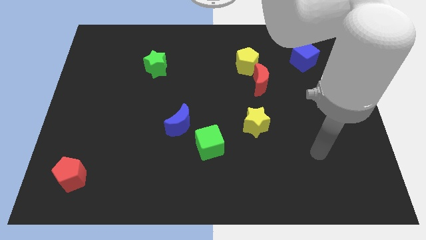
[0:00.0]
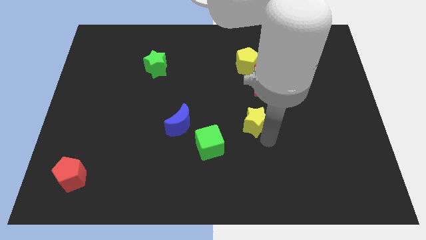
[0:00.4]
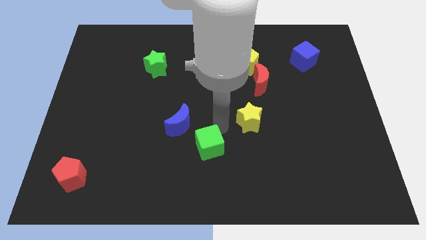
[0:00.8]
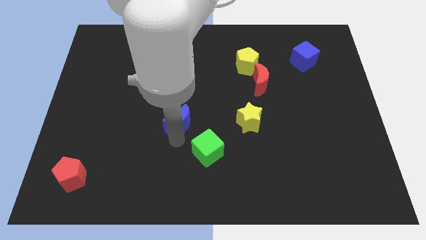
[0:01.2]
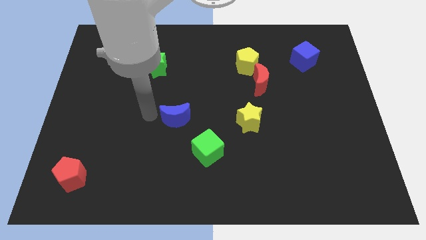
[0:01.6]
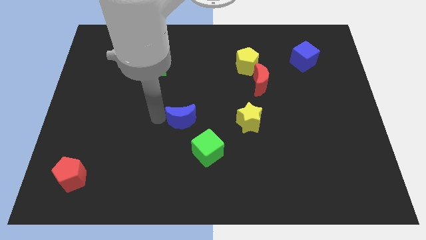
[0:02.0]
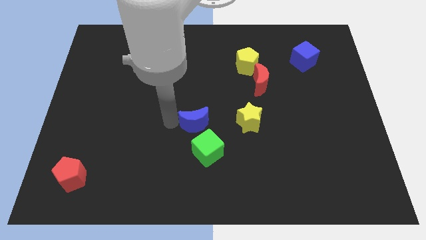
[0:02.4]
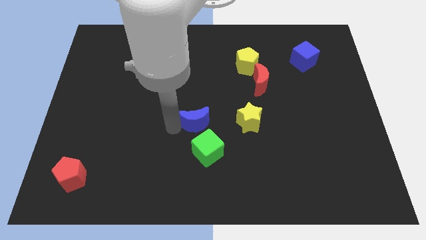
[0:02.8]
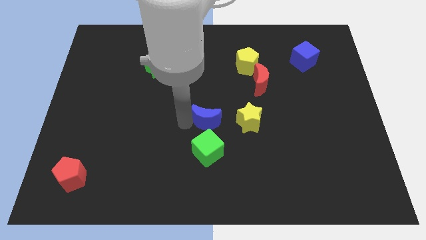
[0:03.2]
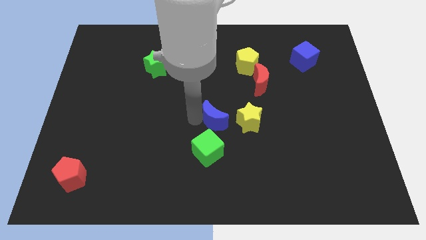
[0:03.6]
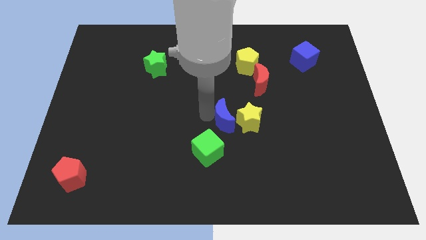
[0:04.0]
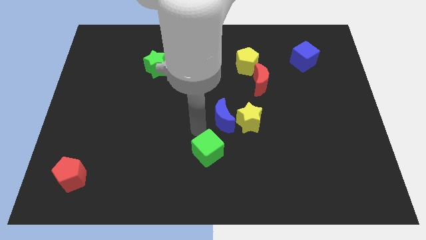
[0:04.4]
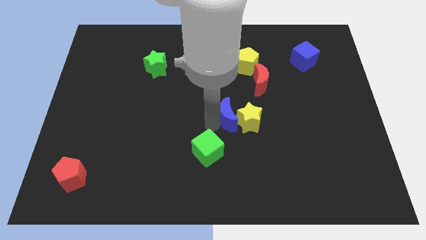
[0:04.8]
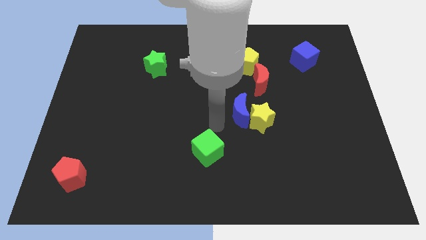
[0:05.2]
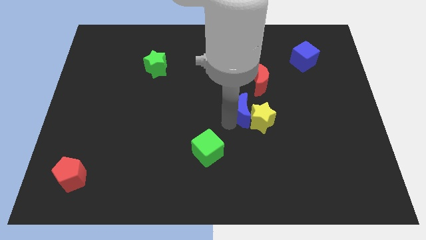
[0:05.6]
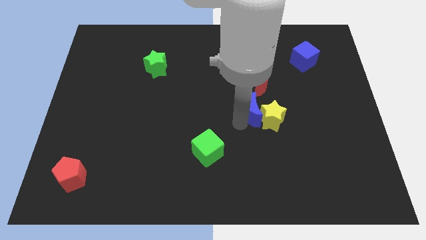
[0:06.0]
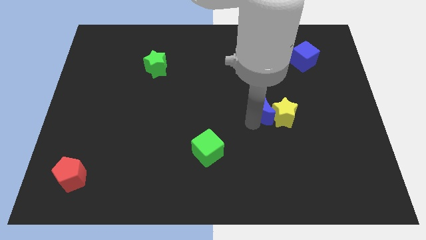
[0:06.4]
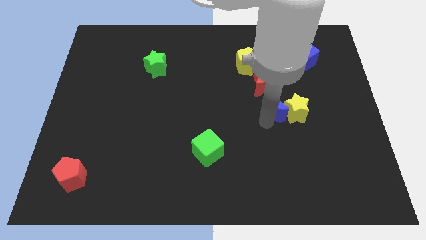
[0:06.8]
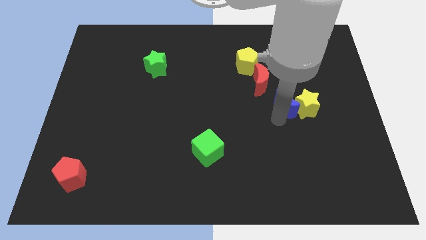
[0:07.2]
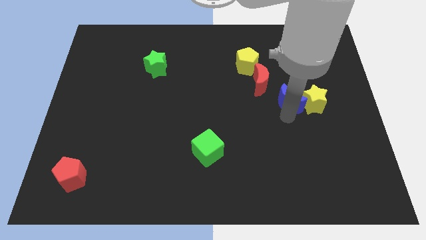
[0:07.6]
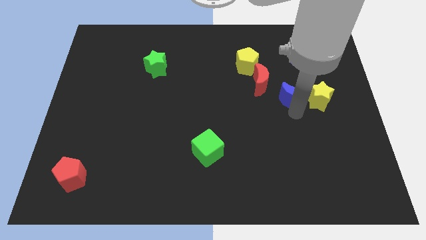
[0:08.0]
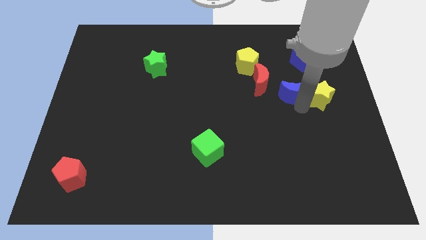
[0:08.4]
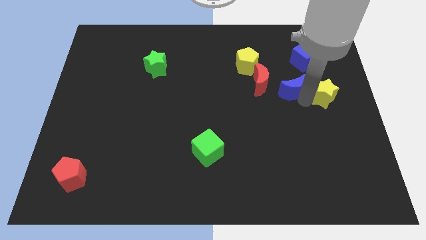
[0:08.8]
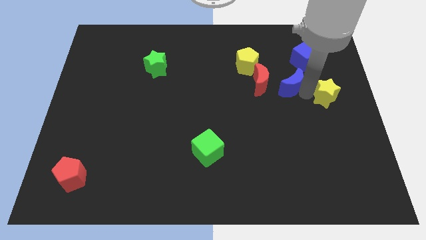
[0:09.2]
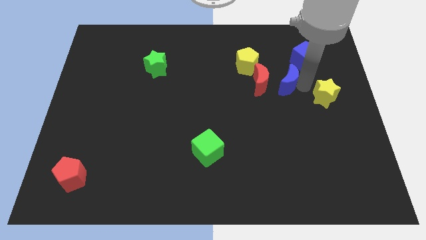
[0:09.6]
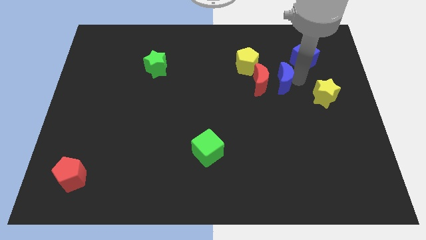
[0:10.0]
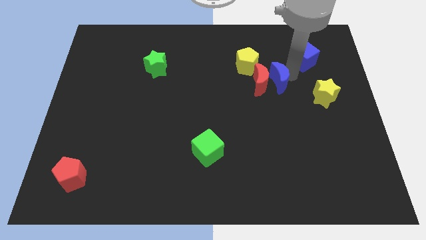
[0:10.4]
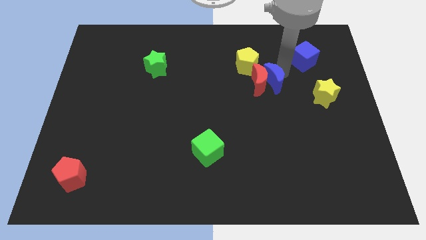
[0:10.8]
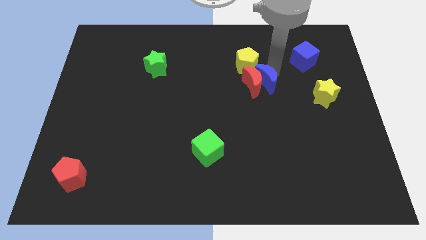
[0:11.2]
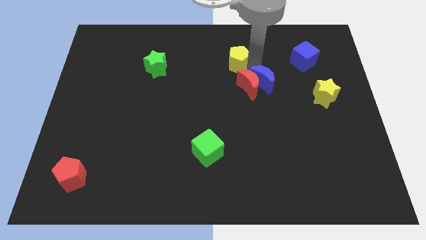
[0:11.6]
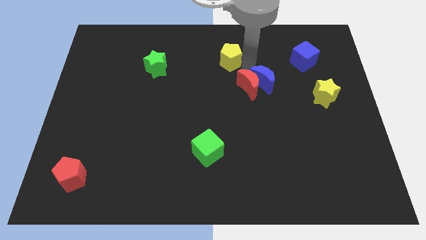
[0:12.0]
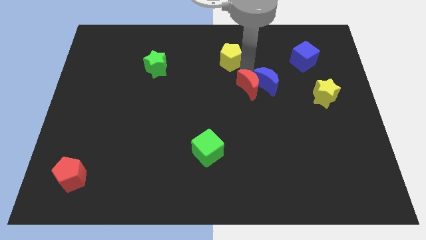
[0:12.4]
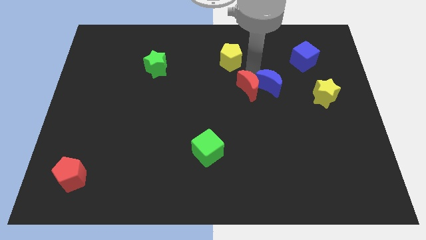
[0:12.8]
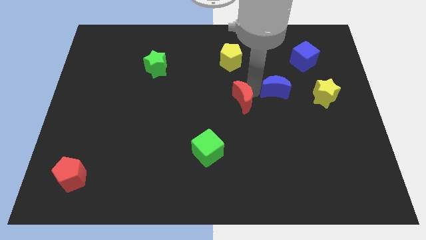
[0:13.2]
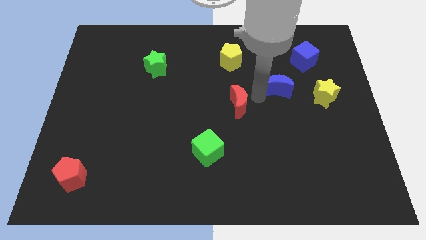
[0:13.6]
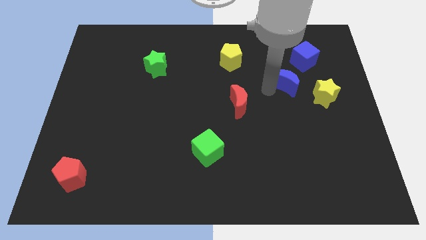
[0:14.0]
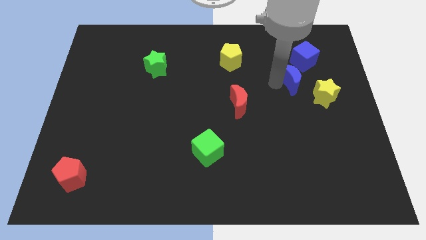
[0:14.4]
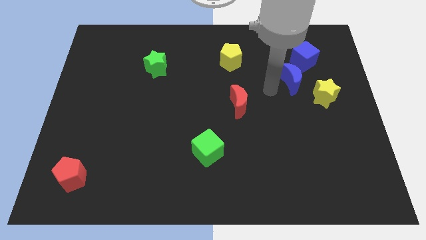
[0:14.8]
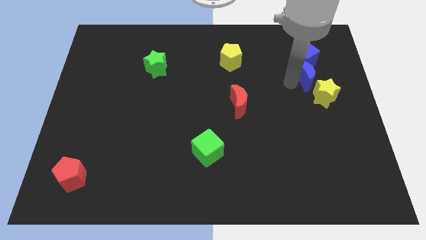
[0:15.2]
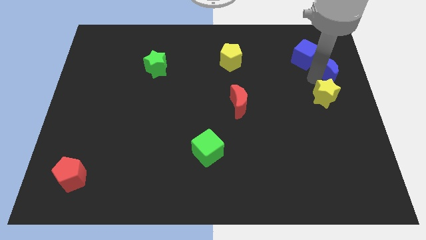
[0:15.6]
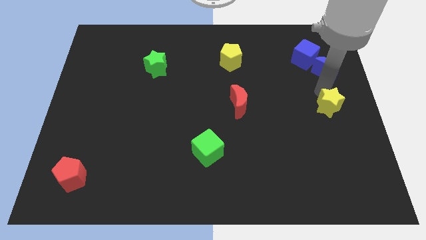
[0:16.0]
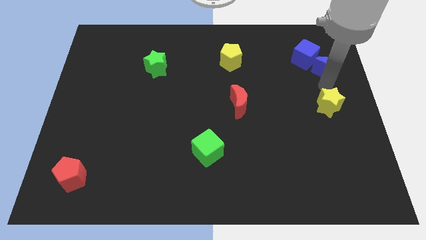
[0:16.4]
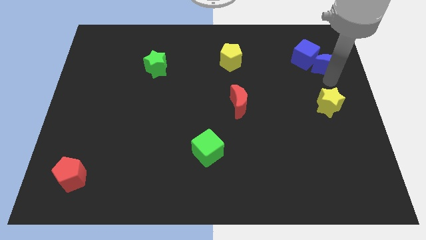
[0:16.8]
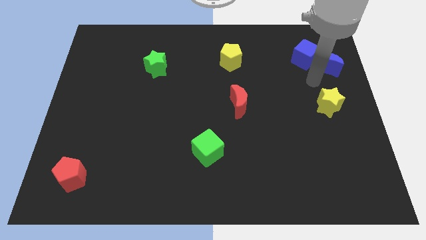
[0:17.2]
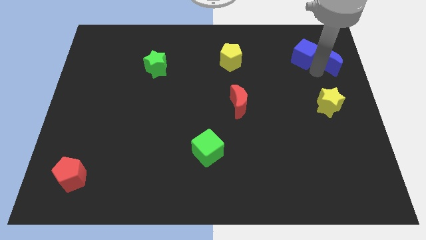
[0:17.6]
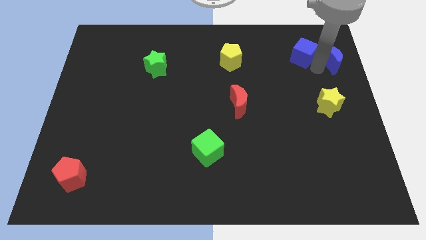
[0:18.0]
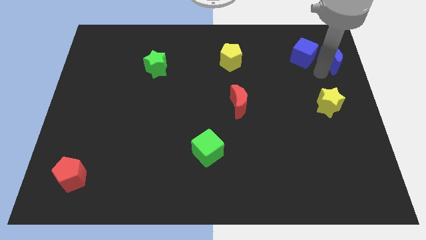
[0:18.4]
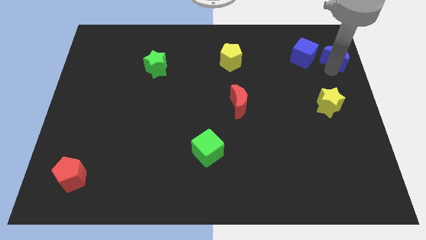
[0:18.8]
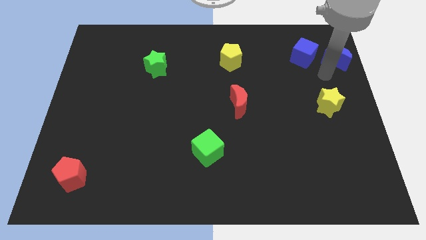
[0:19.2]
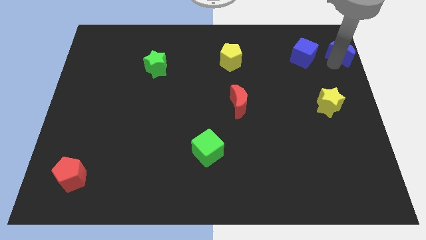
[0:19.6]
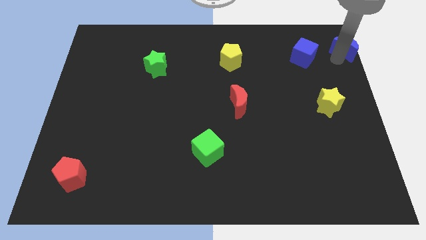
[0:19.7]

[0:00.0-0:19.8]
put the blue moon to the top right of the board

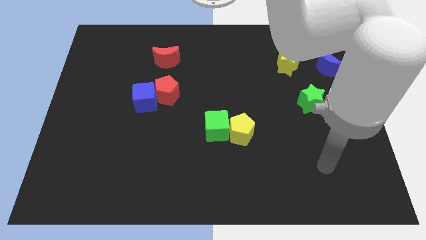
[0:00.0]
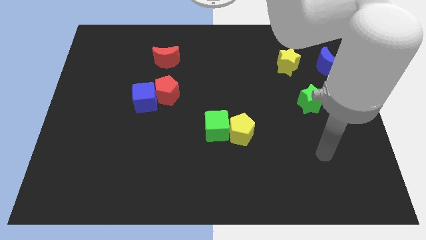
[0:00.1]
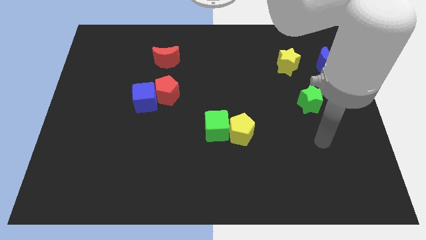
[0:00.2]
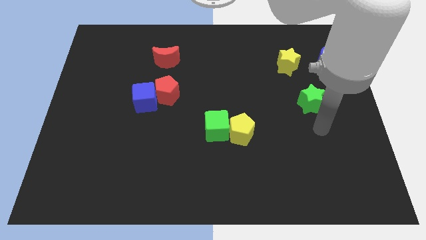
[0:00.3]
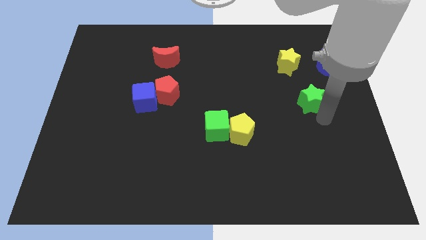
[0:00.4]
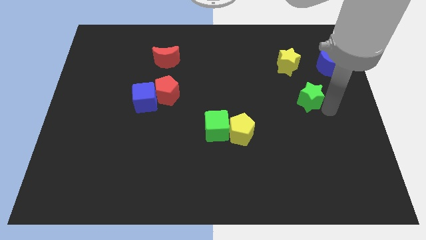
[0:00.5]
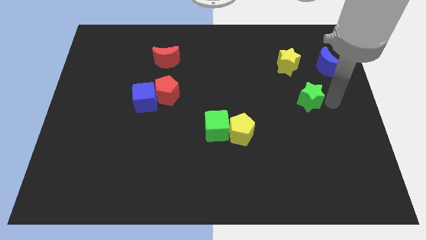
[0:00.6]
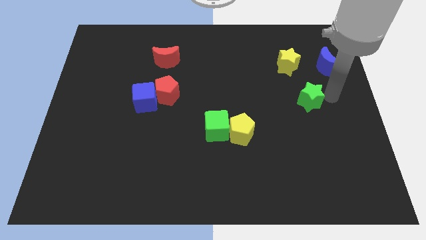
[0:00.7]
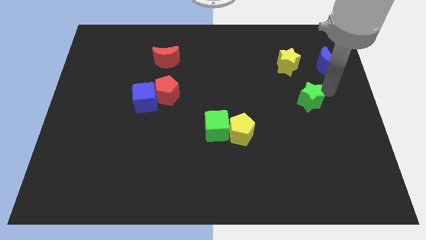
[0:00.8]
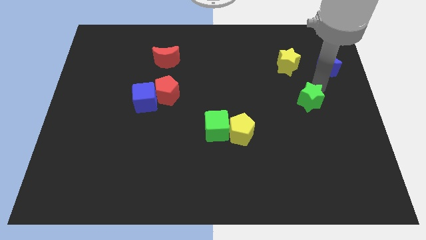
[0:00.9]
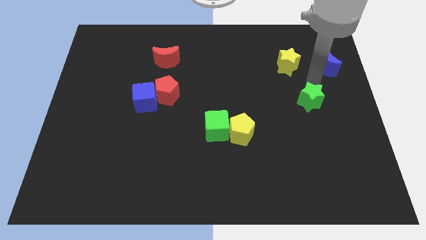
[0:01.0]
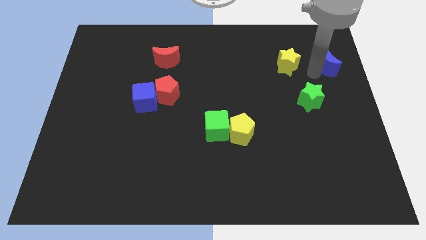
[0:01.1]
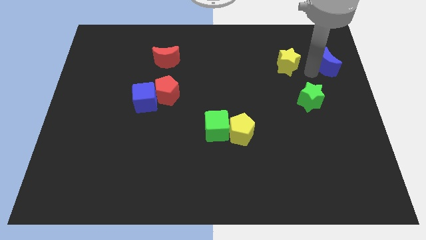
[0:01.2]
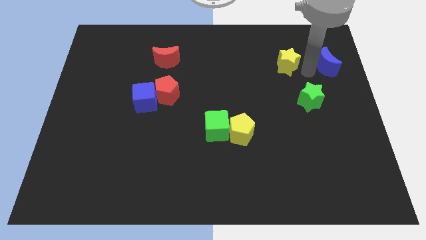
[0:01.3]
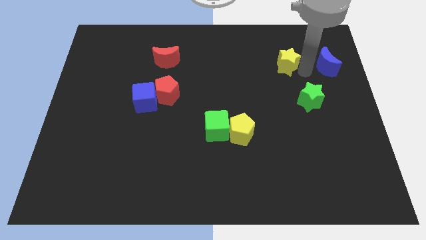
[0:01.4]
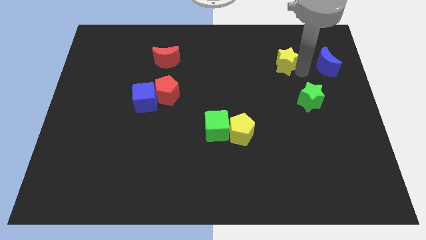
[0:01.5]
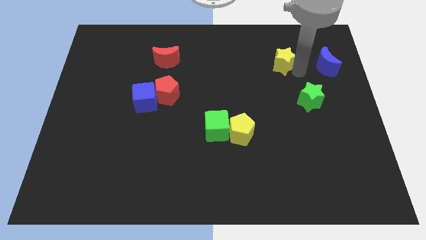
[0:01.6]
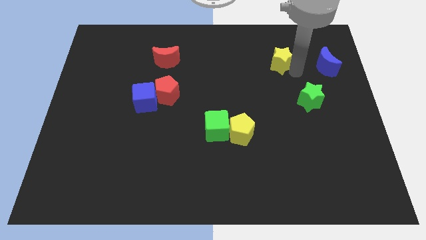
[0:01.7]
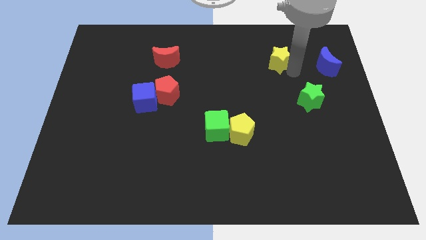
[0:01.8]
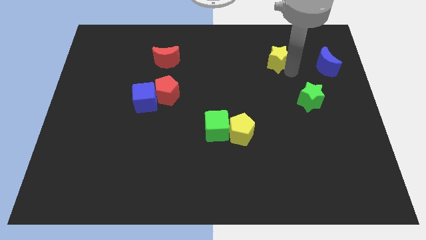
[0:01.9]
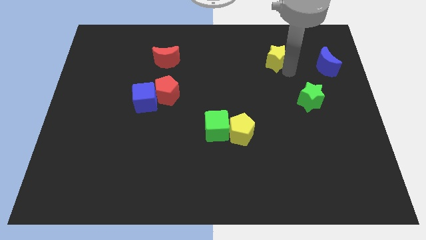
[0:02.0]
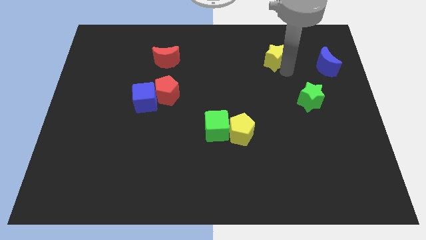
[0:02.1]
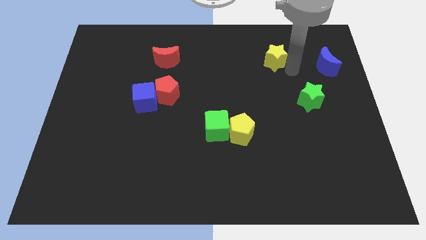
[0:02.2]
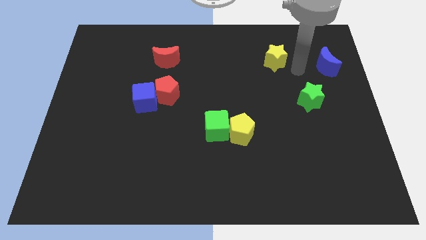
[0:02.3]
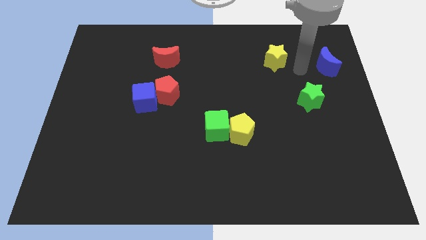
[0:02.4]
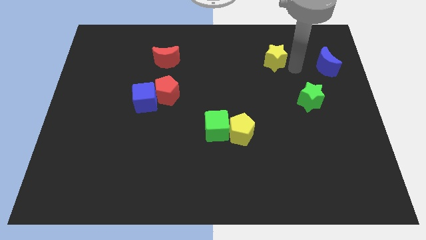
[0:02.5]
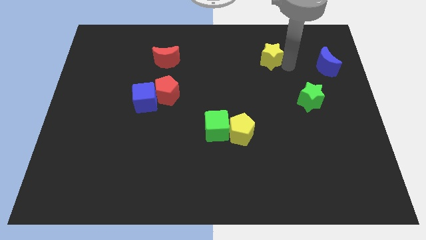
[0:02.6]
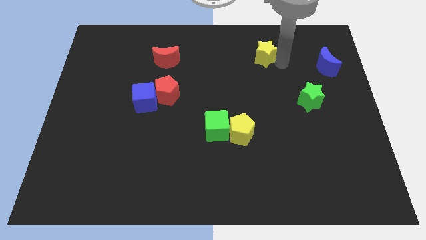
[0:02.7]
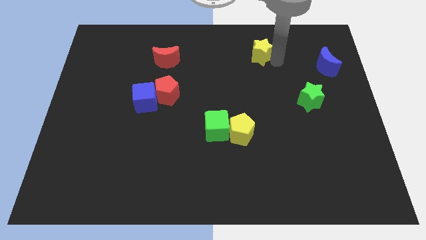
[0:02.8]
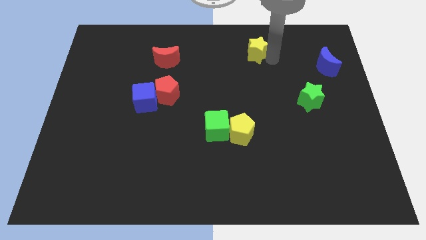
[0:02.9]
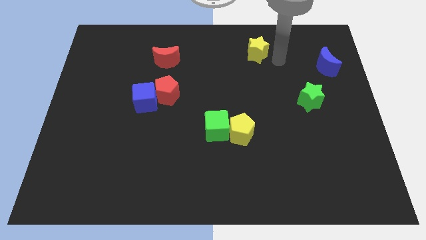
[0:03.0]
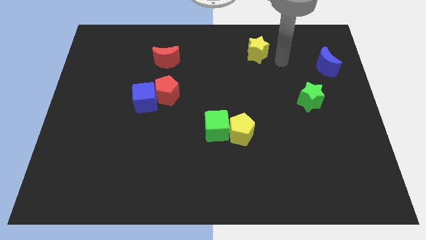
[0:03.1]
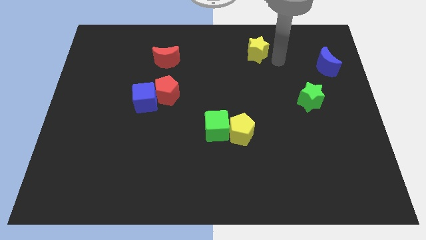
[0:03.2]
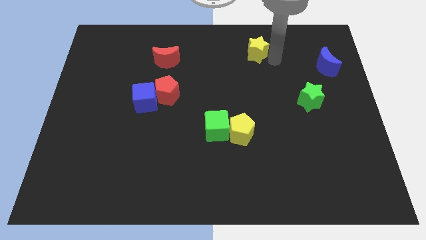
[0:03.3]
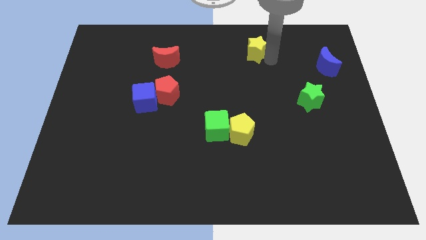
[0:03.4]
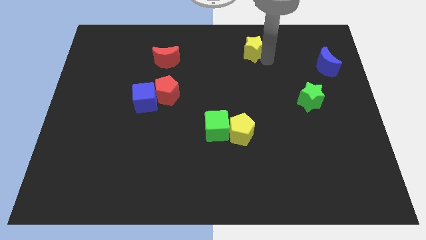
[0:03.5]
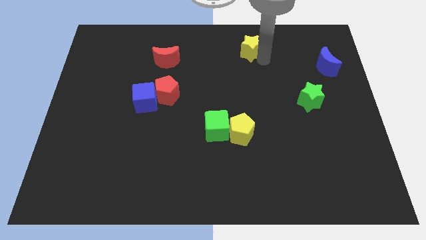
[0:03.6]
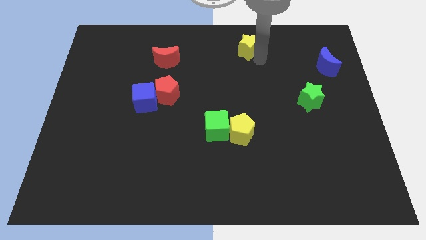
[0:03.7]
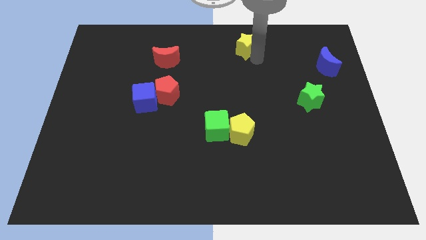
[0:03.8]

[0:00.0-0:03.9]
push the yellow star to the top
